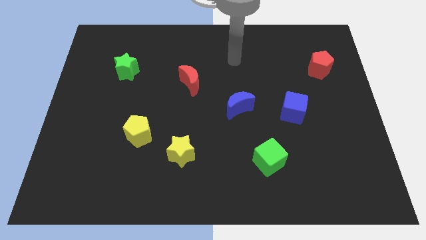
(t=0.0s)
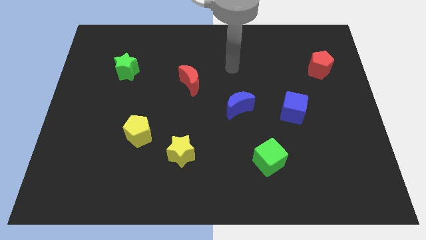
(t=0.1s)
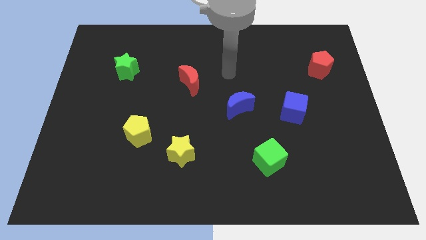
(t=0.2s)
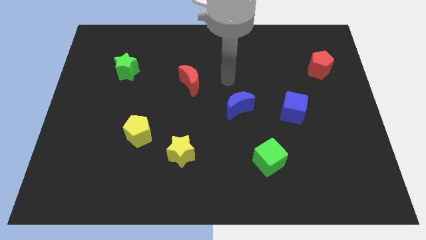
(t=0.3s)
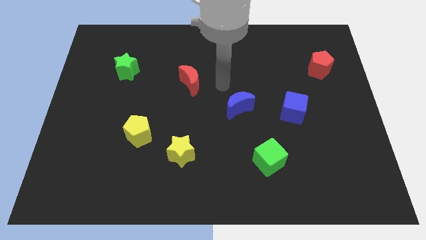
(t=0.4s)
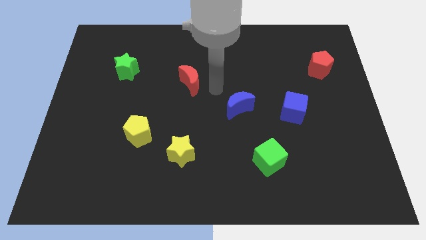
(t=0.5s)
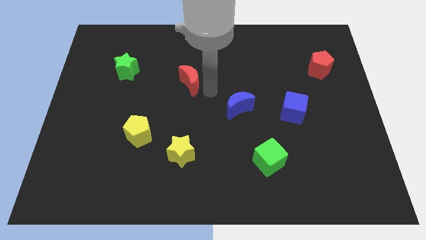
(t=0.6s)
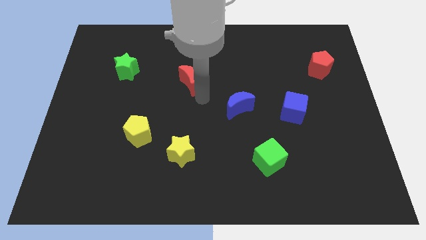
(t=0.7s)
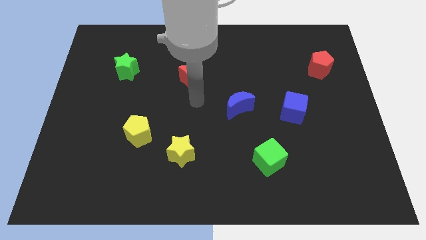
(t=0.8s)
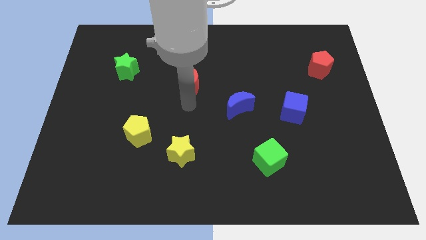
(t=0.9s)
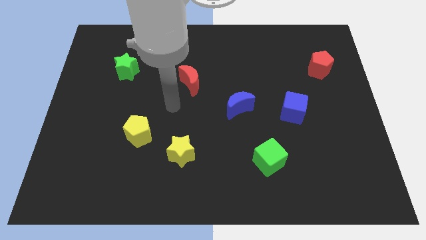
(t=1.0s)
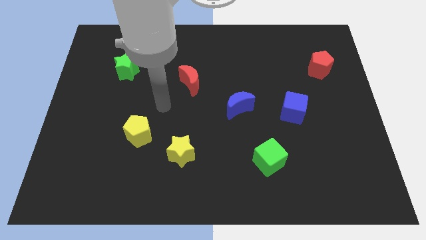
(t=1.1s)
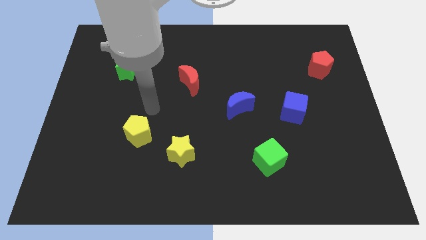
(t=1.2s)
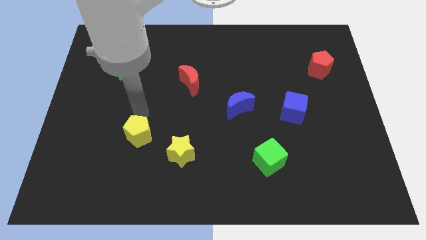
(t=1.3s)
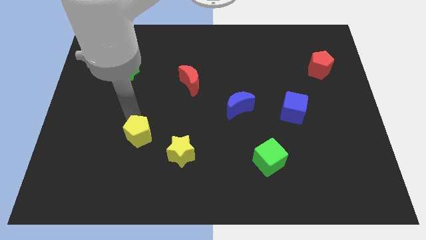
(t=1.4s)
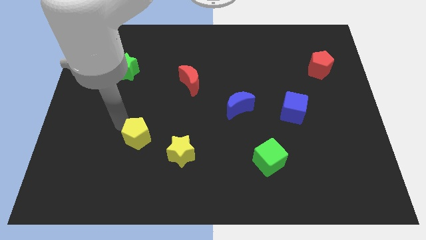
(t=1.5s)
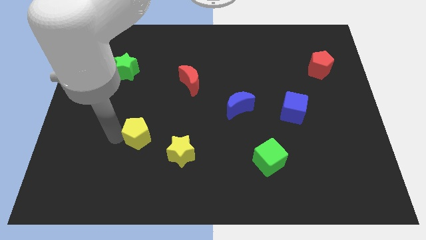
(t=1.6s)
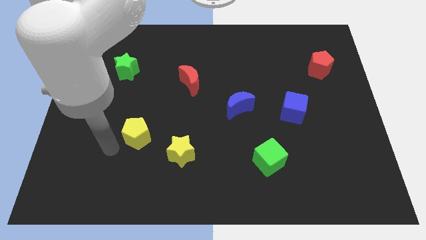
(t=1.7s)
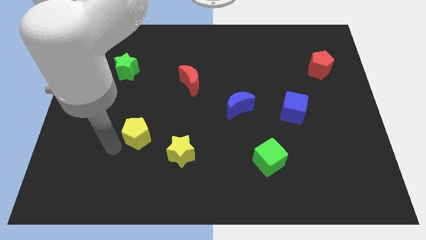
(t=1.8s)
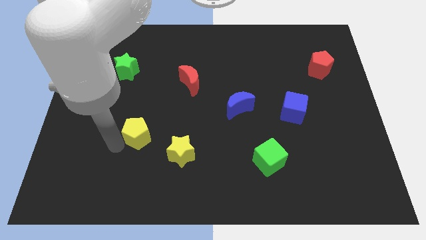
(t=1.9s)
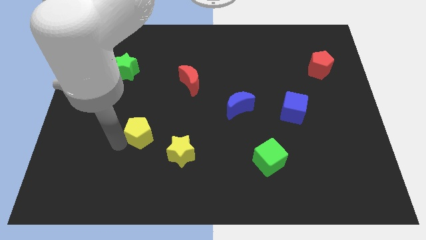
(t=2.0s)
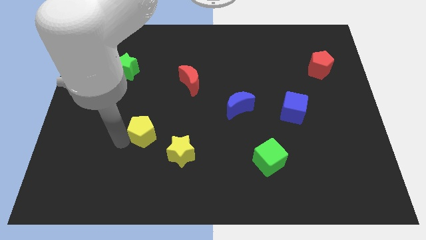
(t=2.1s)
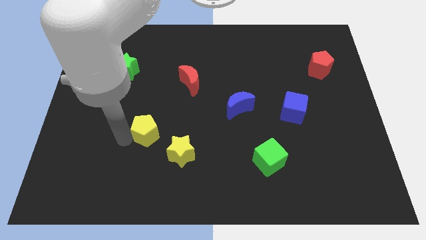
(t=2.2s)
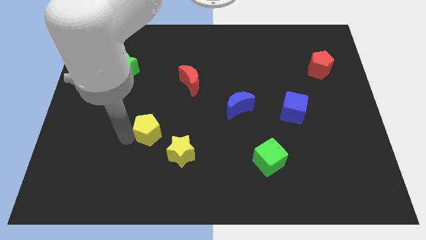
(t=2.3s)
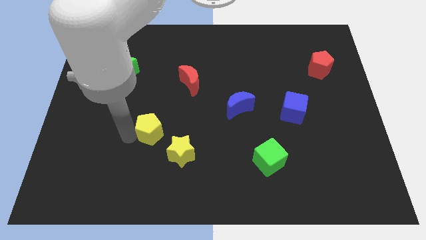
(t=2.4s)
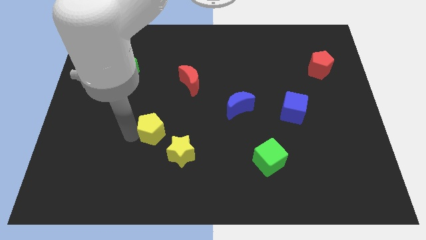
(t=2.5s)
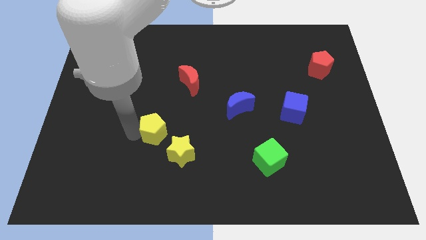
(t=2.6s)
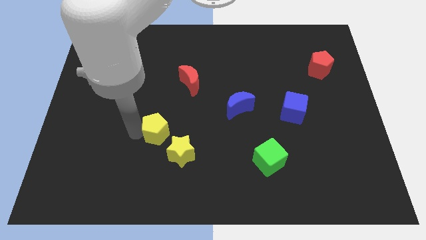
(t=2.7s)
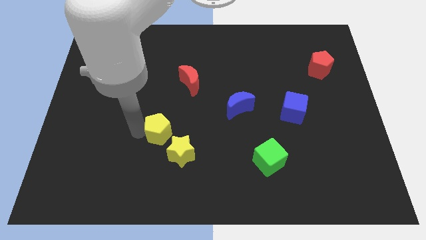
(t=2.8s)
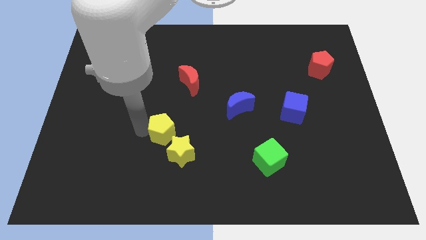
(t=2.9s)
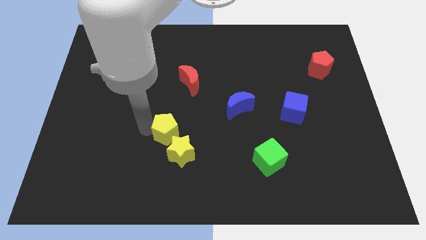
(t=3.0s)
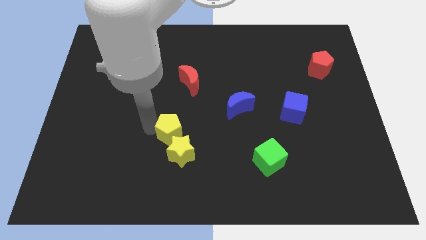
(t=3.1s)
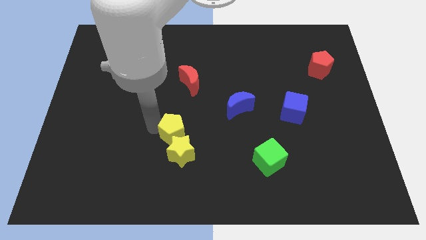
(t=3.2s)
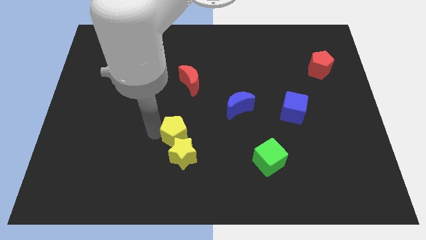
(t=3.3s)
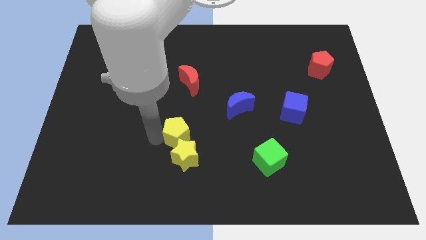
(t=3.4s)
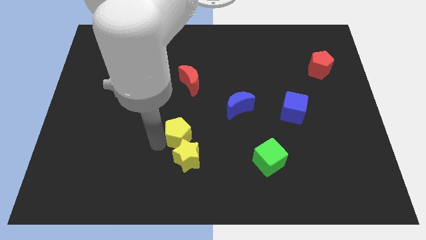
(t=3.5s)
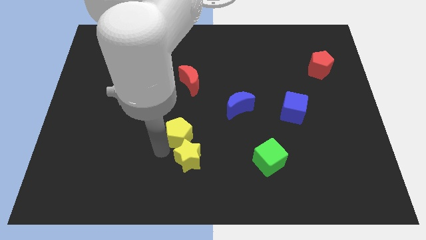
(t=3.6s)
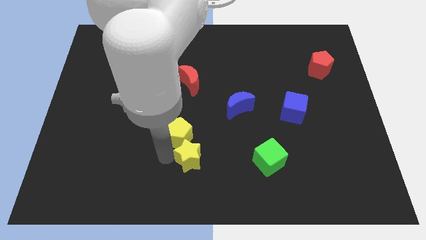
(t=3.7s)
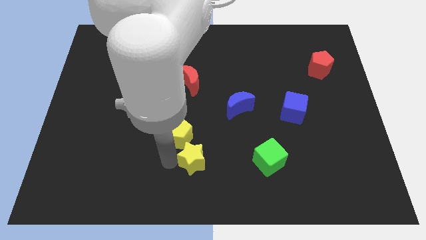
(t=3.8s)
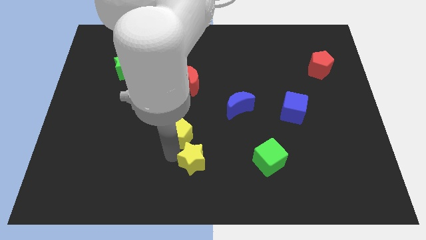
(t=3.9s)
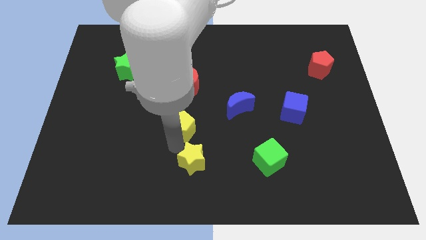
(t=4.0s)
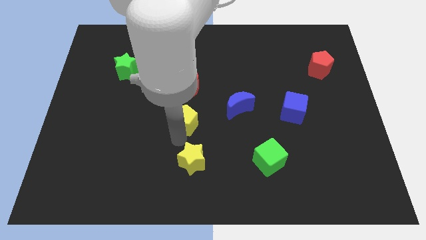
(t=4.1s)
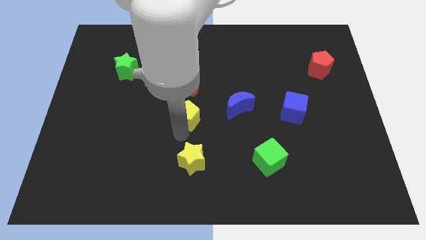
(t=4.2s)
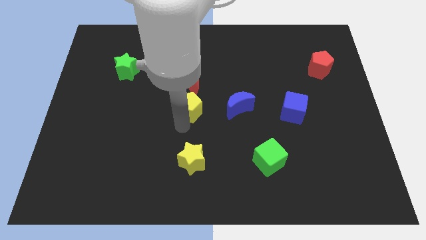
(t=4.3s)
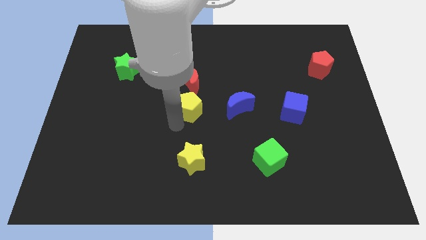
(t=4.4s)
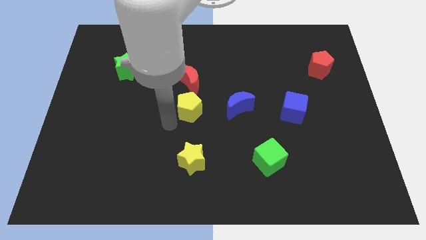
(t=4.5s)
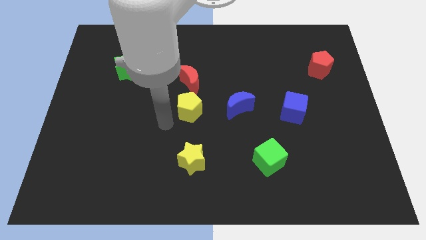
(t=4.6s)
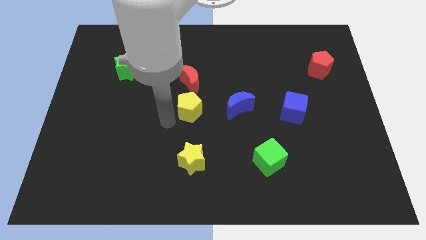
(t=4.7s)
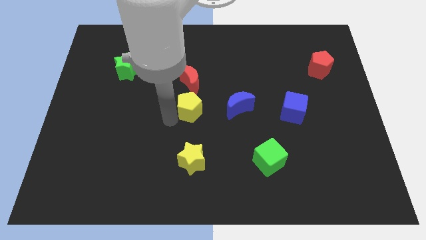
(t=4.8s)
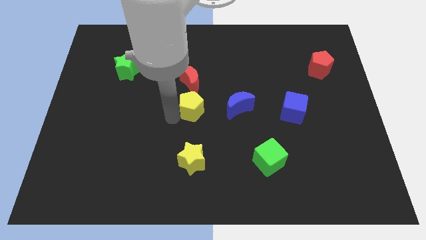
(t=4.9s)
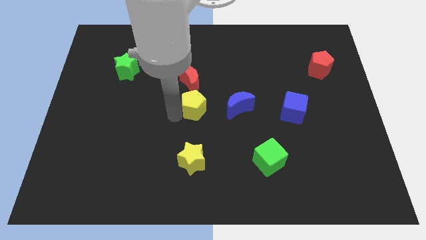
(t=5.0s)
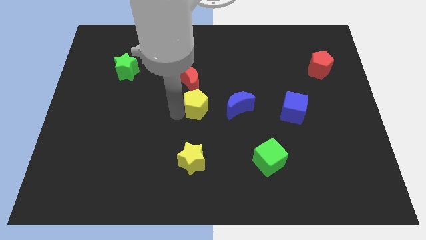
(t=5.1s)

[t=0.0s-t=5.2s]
move the yellow pentagon to the bottom right side of the red moon

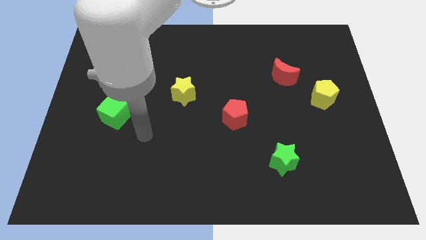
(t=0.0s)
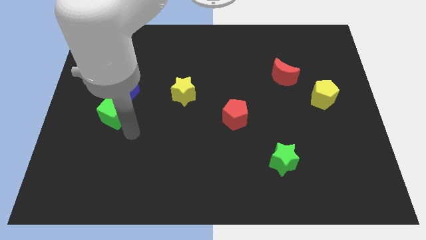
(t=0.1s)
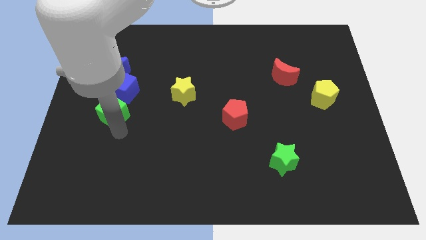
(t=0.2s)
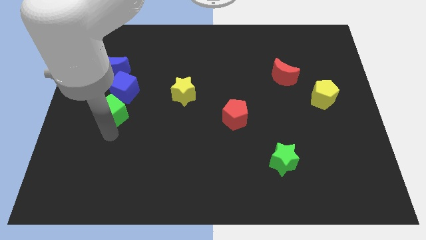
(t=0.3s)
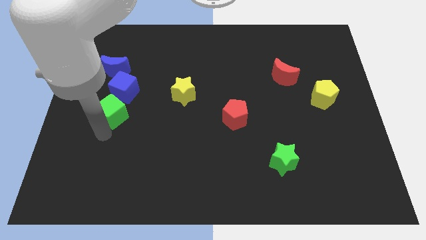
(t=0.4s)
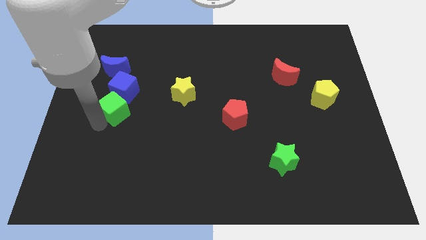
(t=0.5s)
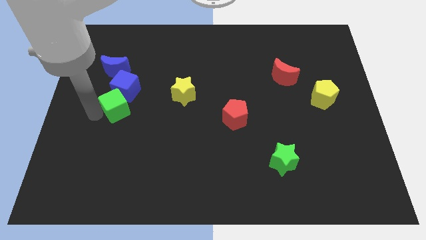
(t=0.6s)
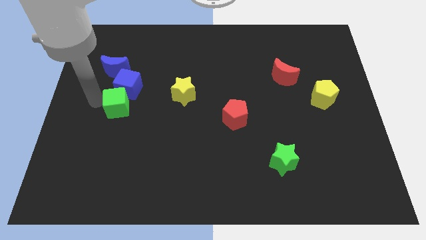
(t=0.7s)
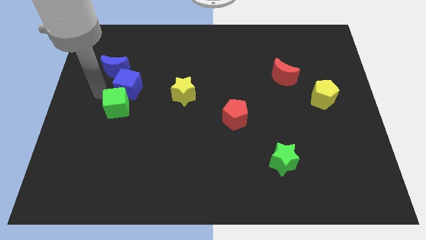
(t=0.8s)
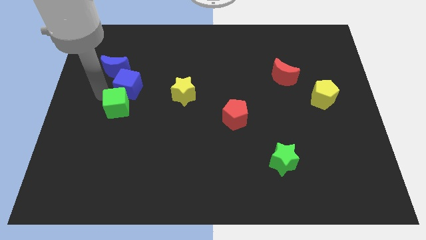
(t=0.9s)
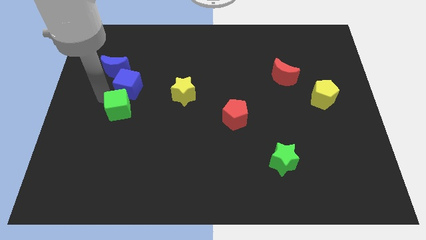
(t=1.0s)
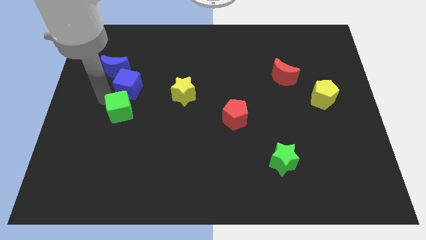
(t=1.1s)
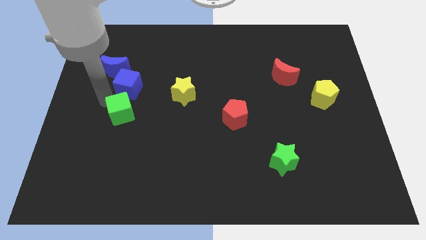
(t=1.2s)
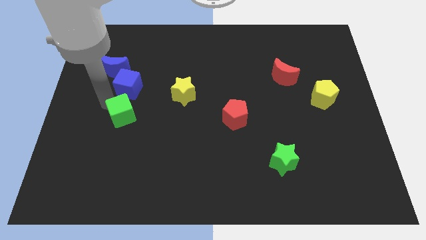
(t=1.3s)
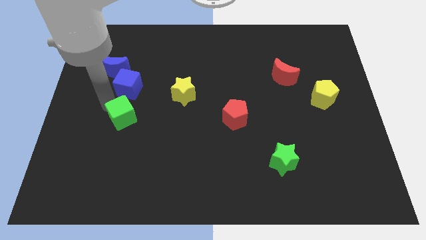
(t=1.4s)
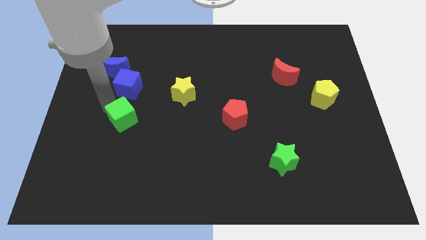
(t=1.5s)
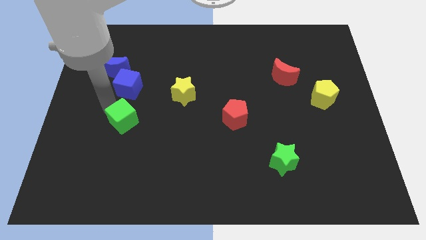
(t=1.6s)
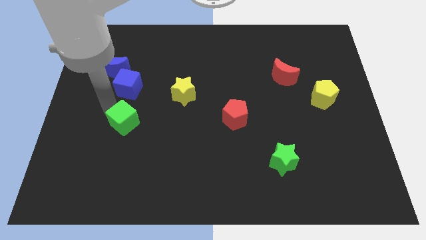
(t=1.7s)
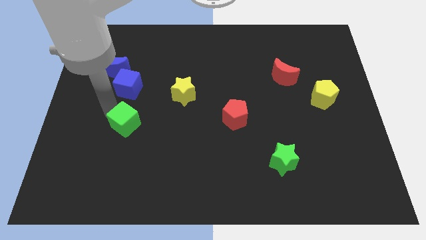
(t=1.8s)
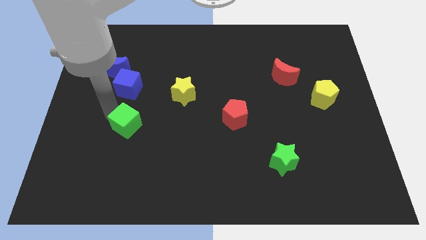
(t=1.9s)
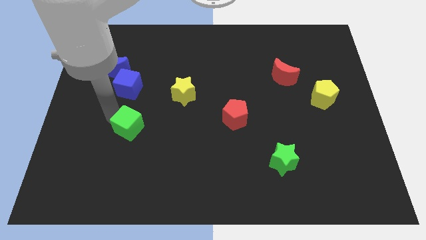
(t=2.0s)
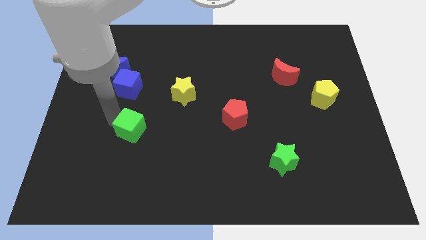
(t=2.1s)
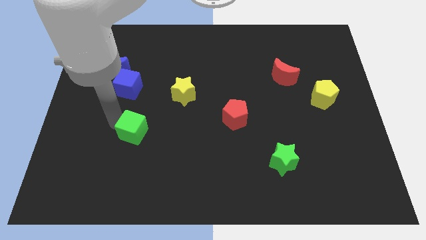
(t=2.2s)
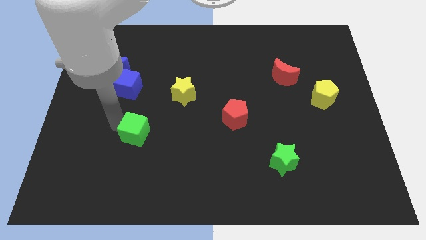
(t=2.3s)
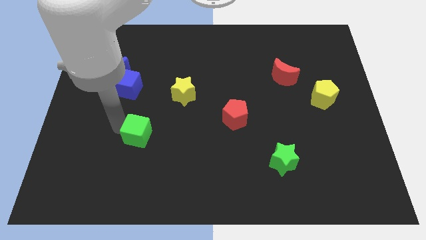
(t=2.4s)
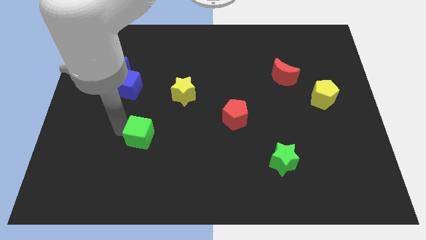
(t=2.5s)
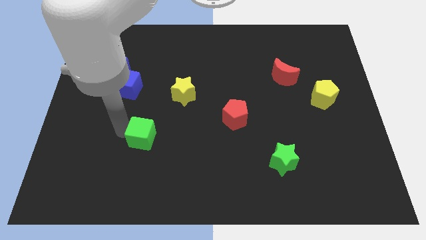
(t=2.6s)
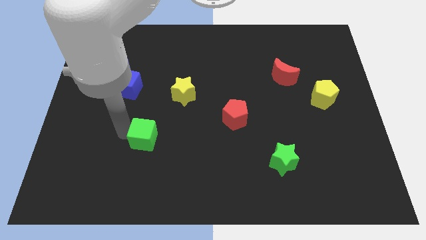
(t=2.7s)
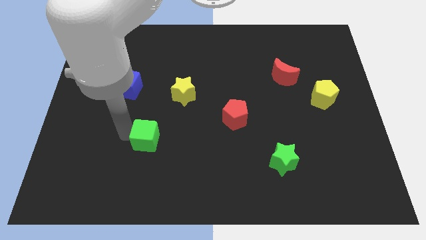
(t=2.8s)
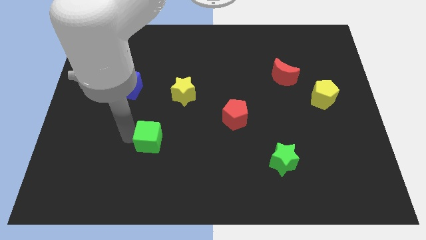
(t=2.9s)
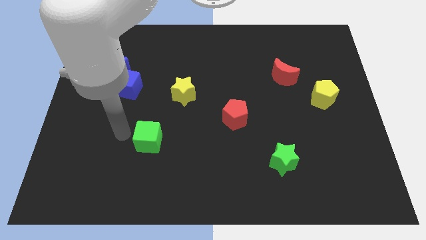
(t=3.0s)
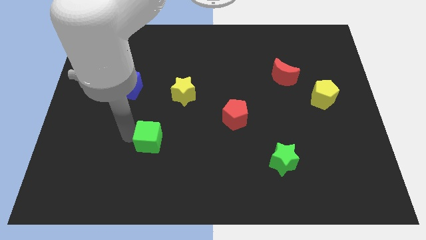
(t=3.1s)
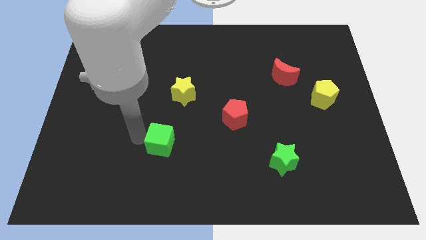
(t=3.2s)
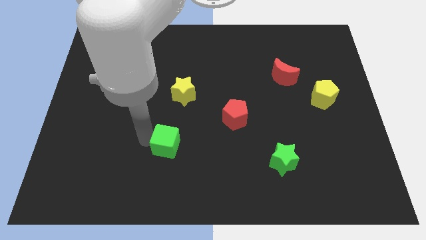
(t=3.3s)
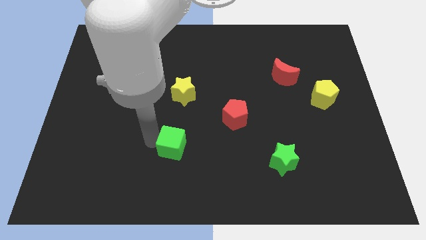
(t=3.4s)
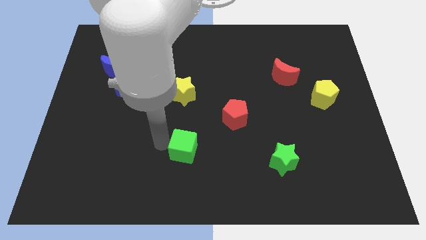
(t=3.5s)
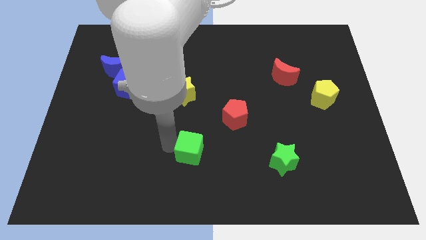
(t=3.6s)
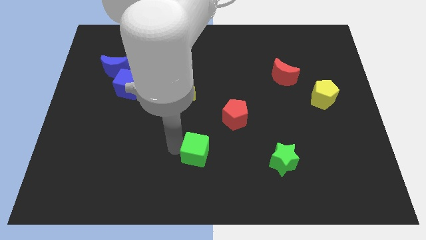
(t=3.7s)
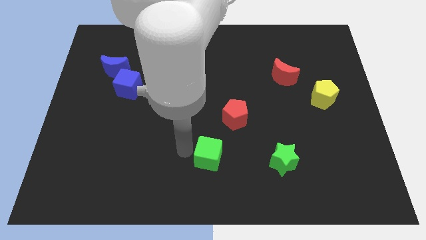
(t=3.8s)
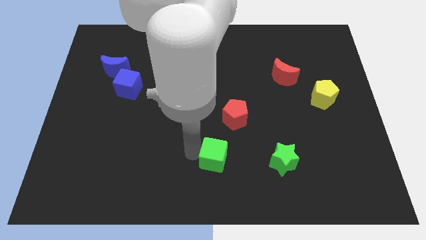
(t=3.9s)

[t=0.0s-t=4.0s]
push the green cube to the bottom side of the red pentagon
